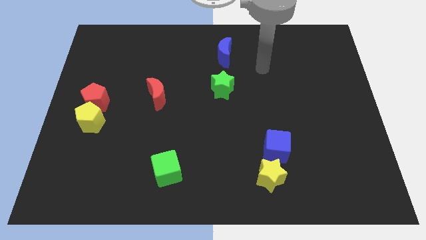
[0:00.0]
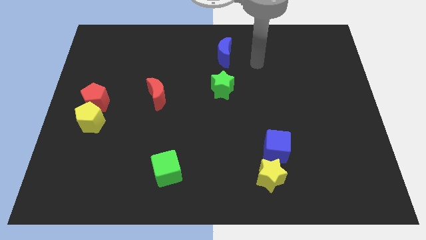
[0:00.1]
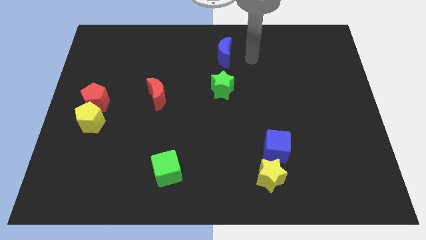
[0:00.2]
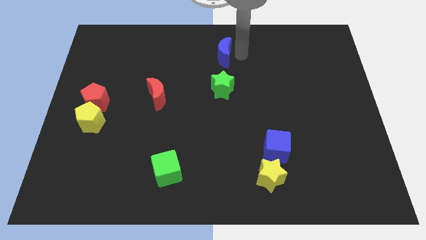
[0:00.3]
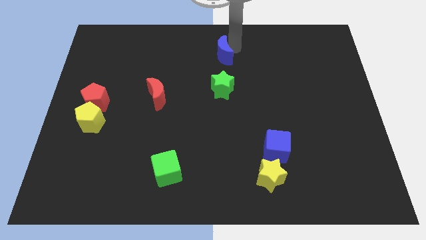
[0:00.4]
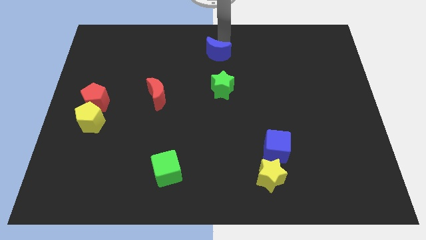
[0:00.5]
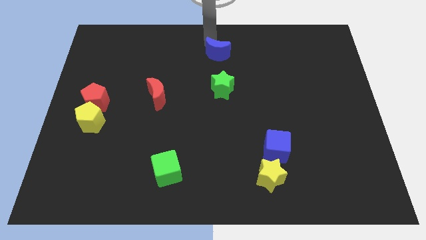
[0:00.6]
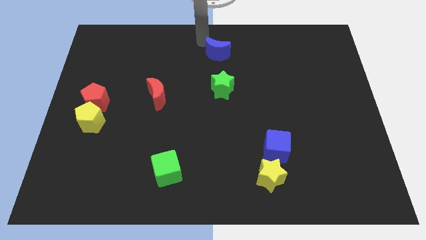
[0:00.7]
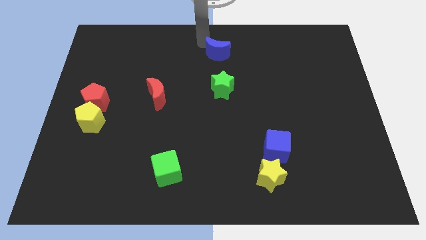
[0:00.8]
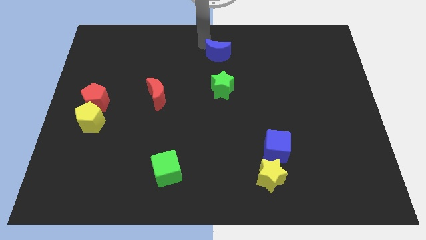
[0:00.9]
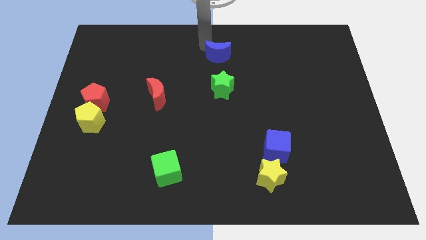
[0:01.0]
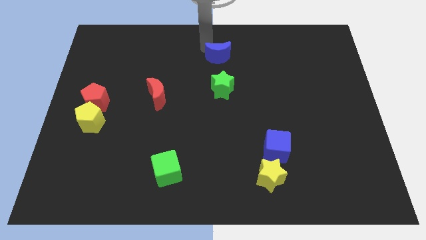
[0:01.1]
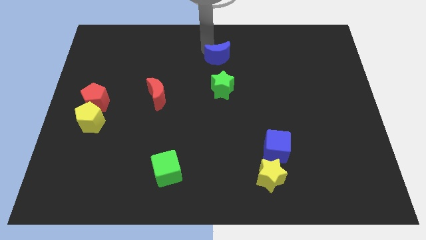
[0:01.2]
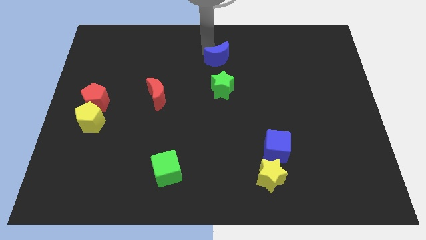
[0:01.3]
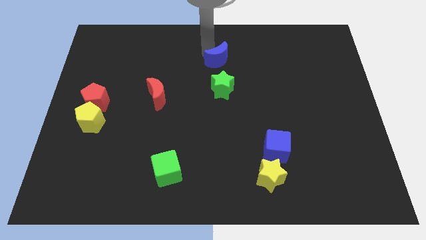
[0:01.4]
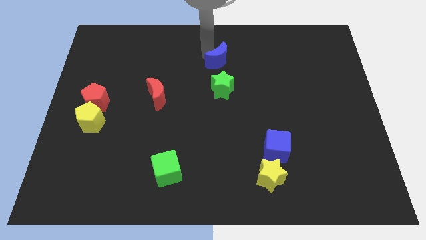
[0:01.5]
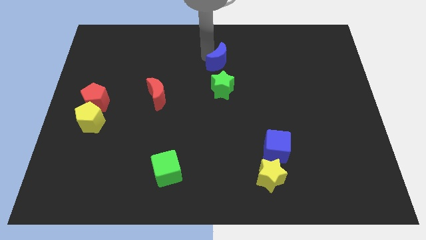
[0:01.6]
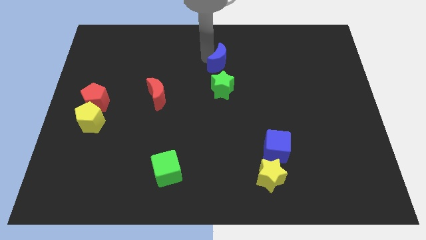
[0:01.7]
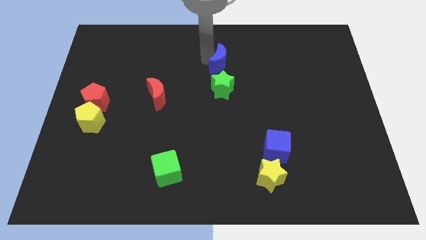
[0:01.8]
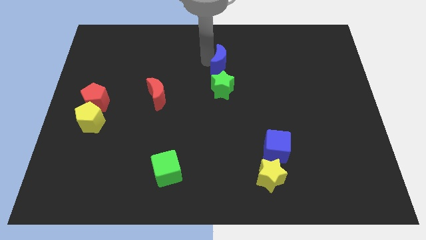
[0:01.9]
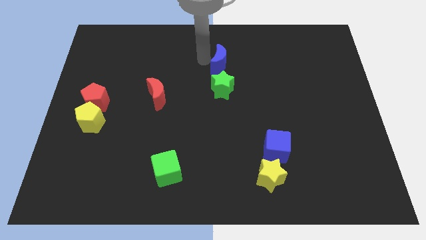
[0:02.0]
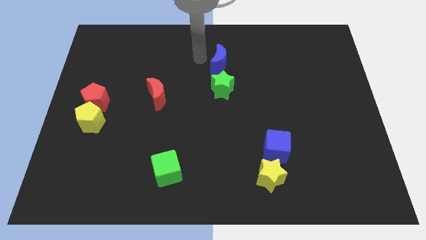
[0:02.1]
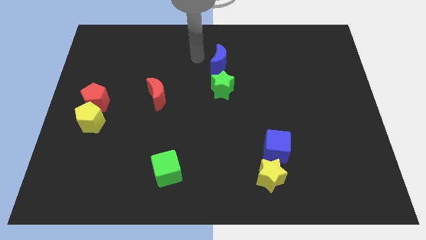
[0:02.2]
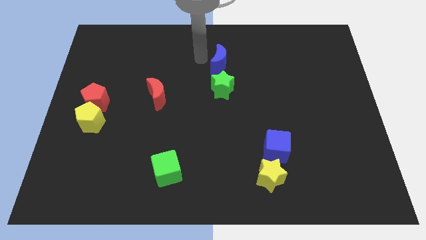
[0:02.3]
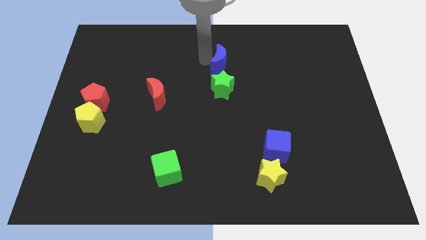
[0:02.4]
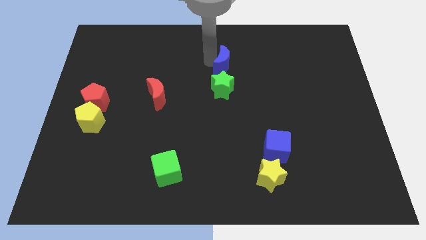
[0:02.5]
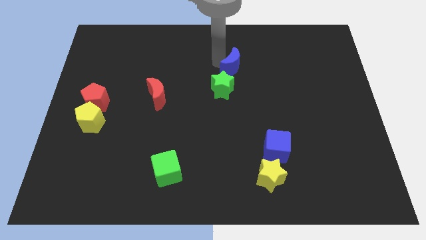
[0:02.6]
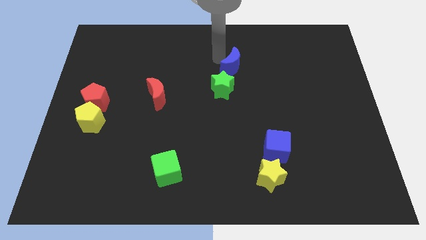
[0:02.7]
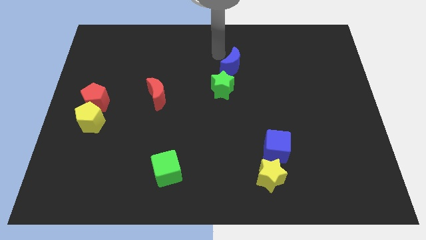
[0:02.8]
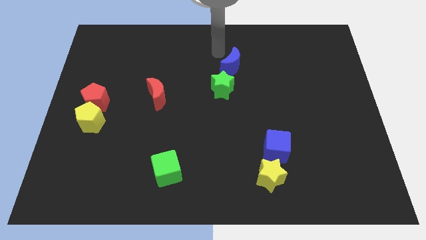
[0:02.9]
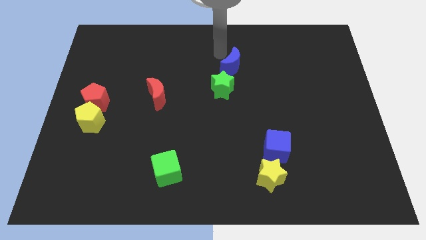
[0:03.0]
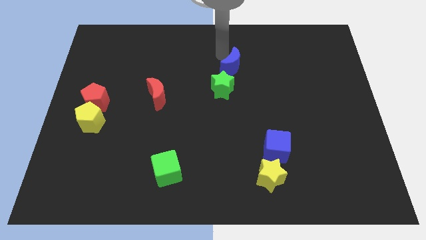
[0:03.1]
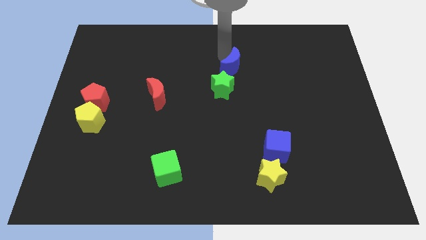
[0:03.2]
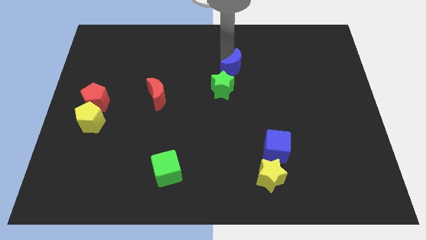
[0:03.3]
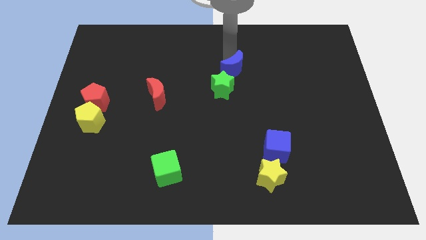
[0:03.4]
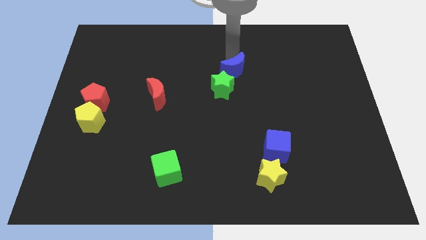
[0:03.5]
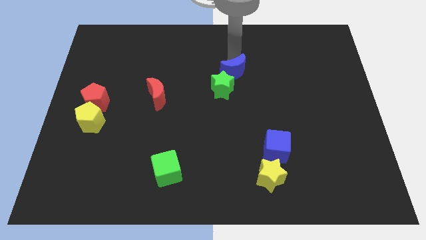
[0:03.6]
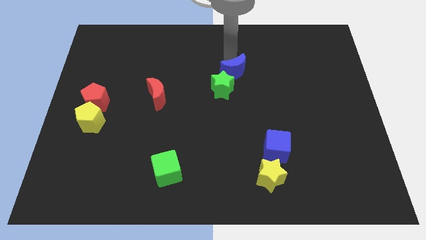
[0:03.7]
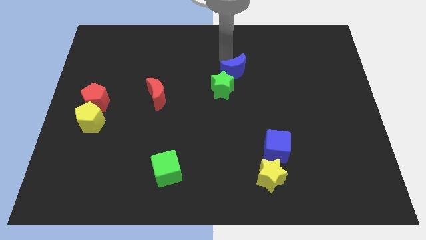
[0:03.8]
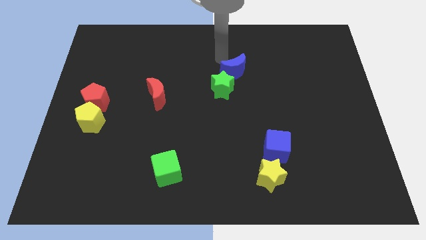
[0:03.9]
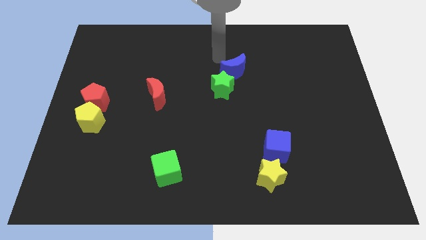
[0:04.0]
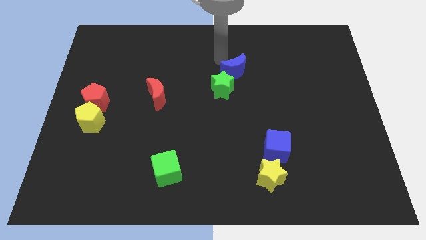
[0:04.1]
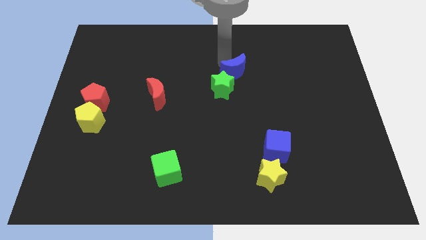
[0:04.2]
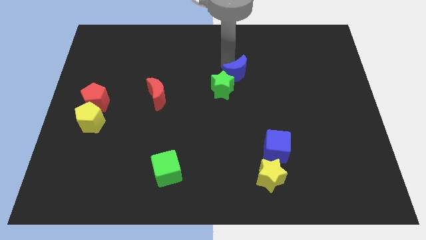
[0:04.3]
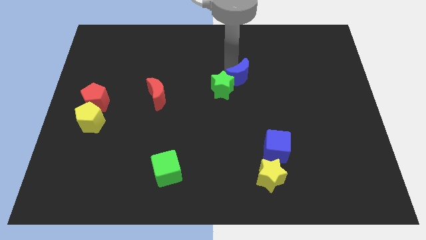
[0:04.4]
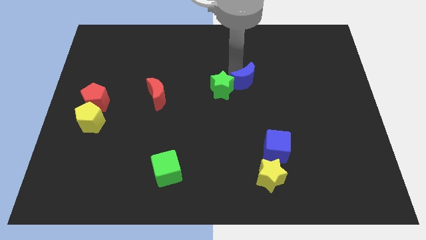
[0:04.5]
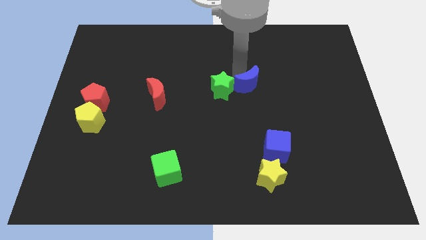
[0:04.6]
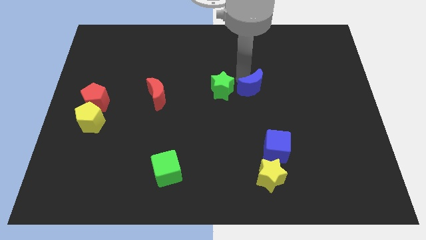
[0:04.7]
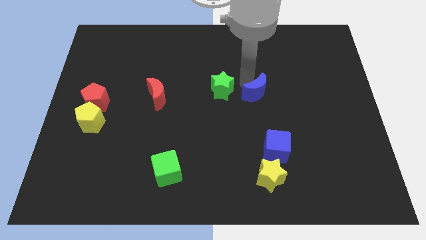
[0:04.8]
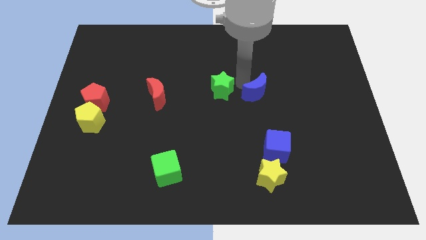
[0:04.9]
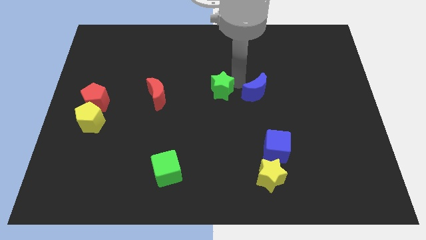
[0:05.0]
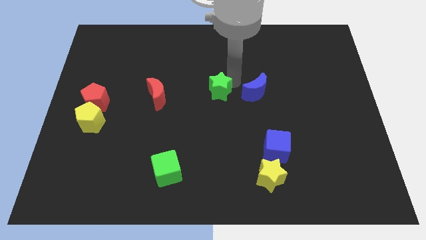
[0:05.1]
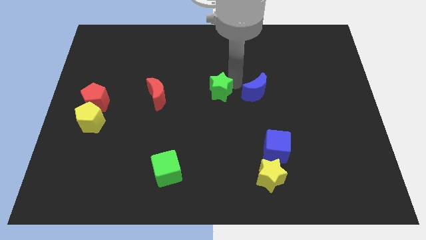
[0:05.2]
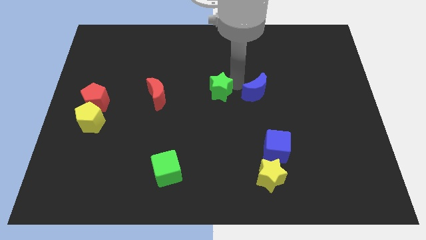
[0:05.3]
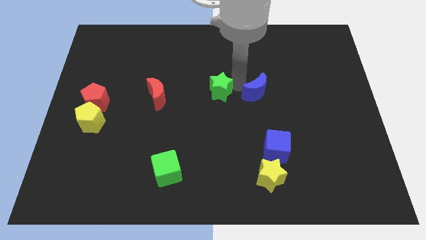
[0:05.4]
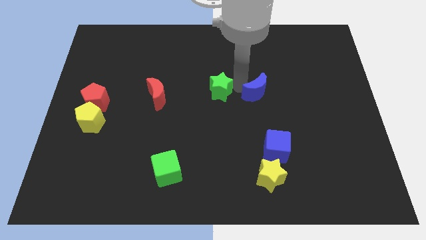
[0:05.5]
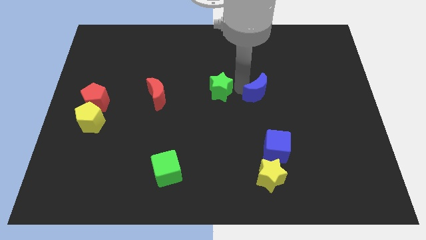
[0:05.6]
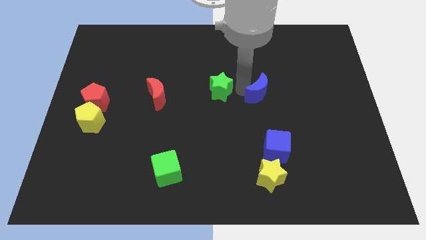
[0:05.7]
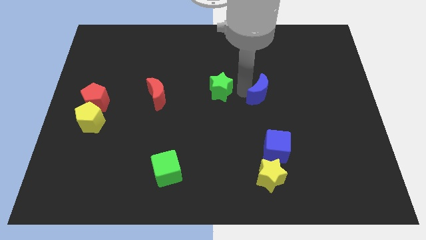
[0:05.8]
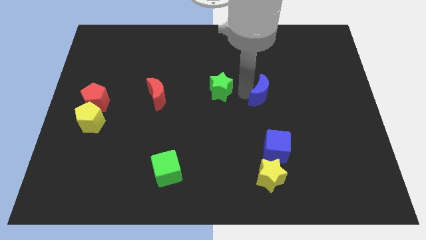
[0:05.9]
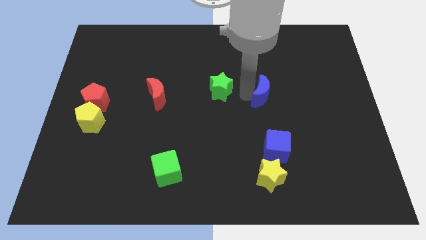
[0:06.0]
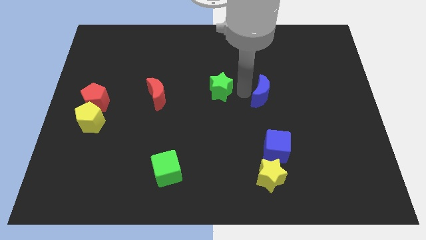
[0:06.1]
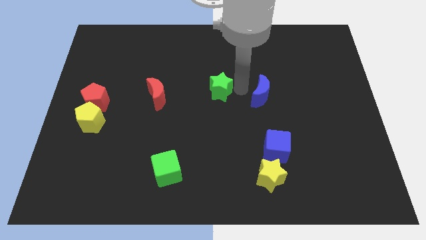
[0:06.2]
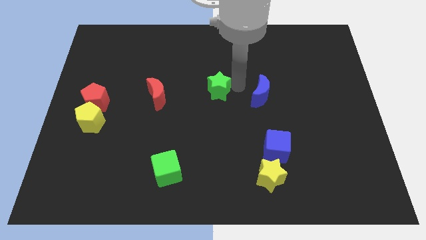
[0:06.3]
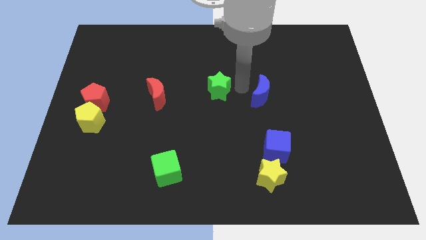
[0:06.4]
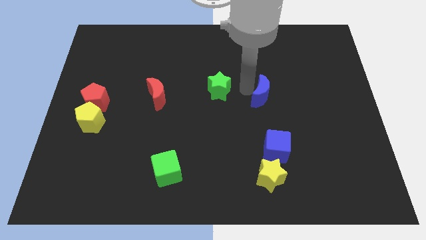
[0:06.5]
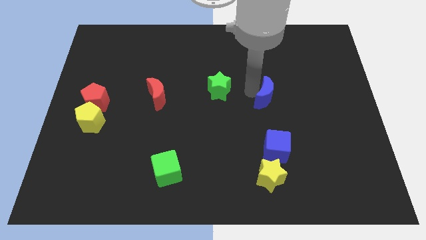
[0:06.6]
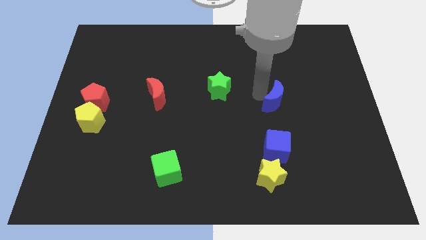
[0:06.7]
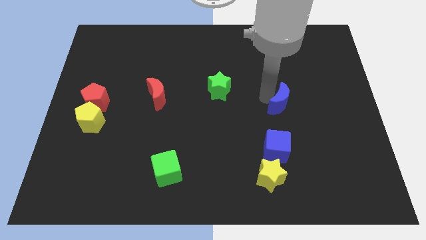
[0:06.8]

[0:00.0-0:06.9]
push the blue moon diagonally down and to the right

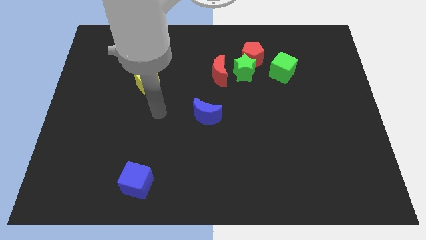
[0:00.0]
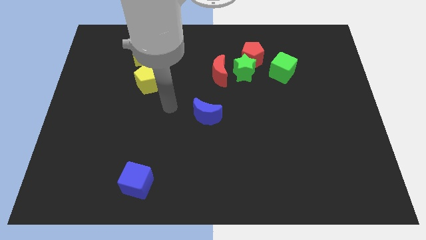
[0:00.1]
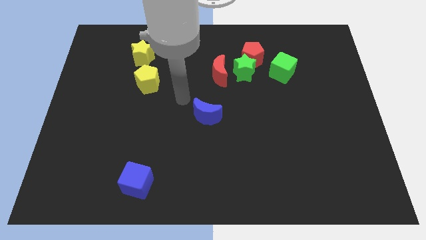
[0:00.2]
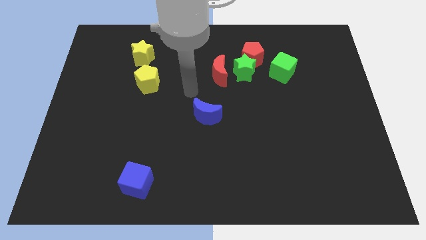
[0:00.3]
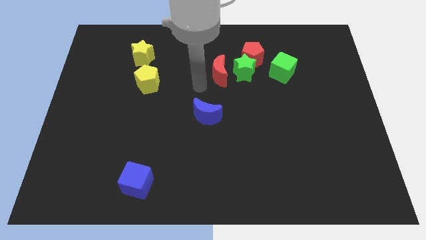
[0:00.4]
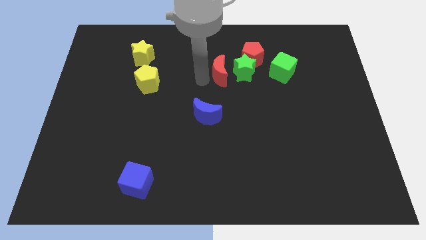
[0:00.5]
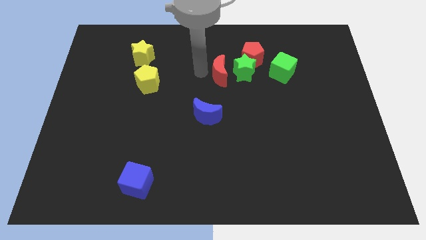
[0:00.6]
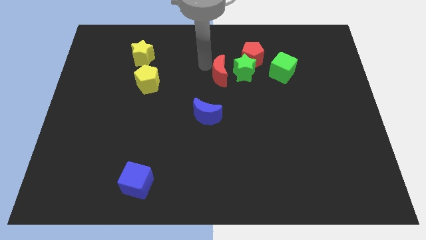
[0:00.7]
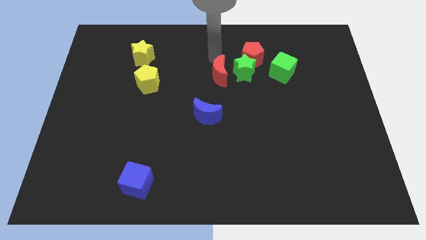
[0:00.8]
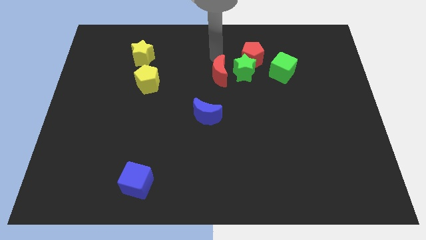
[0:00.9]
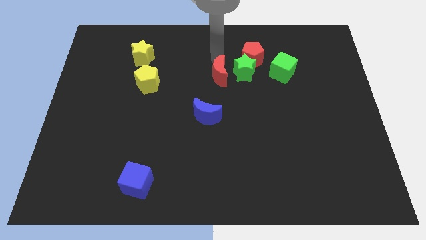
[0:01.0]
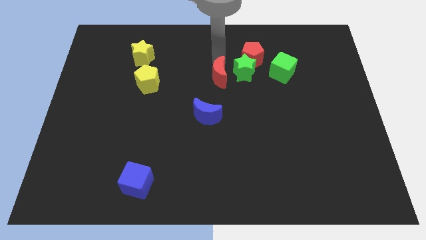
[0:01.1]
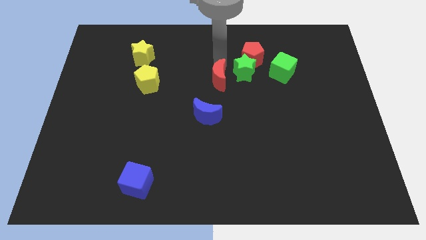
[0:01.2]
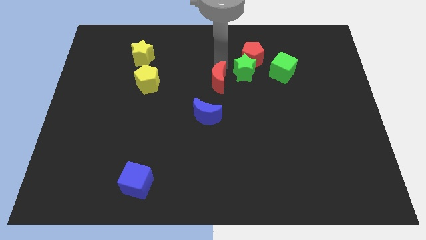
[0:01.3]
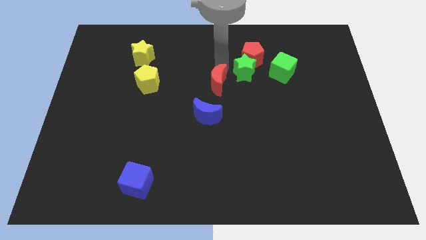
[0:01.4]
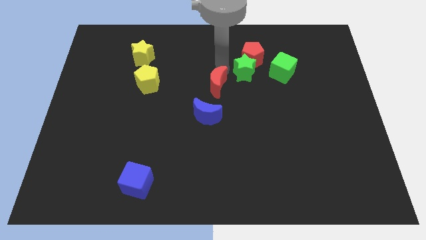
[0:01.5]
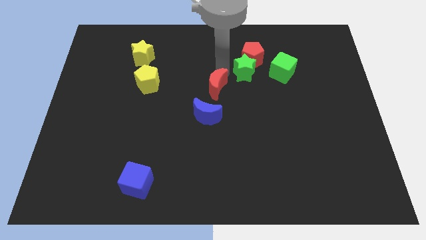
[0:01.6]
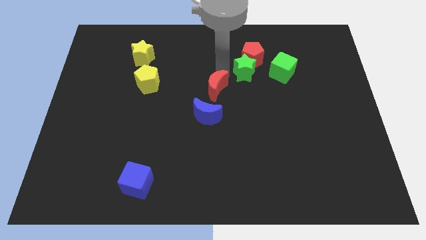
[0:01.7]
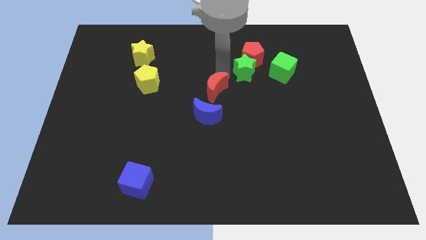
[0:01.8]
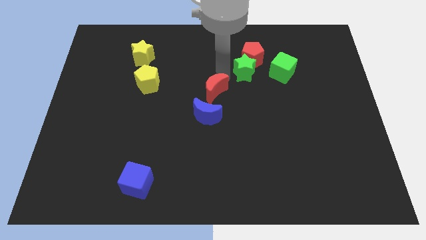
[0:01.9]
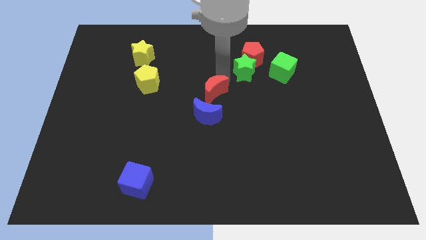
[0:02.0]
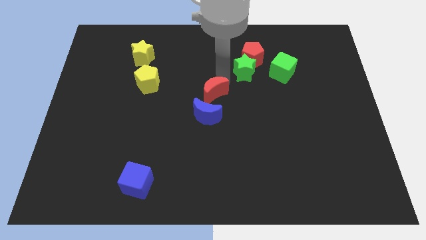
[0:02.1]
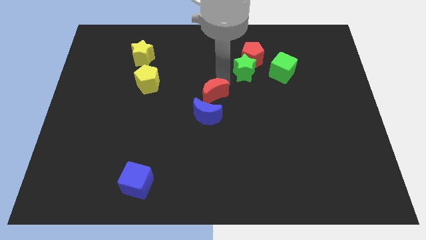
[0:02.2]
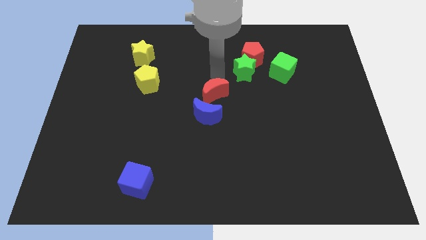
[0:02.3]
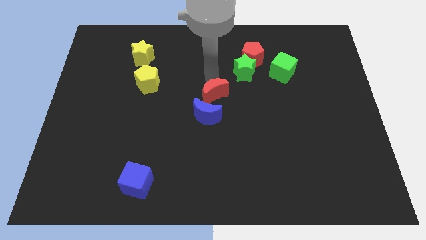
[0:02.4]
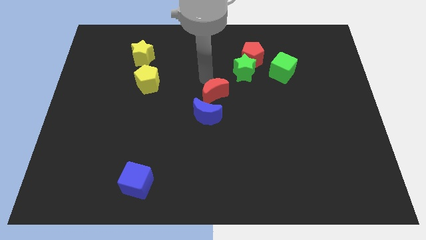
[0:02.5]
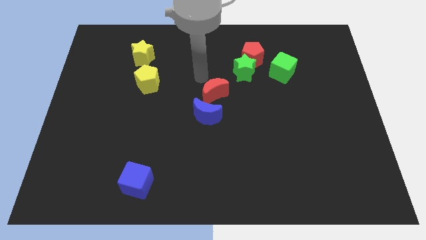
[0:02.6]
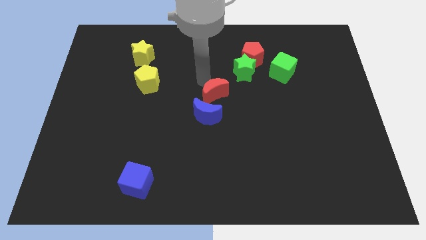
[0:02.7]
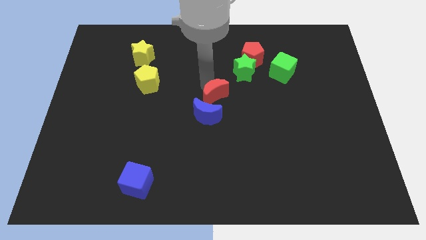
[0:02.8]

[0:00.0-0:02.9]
push the red moon slightly downwards
